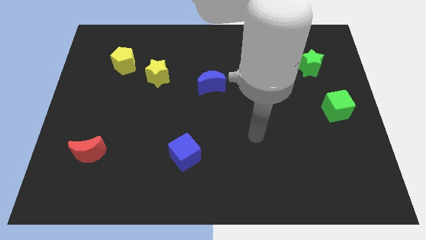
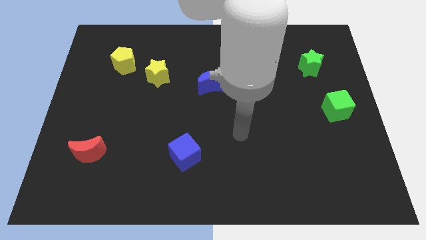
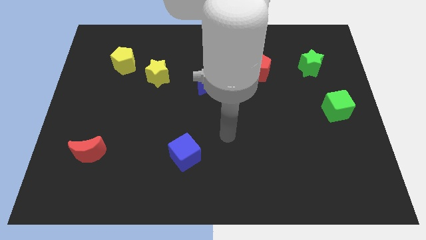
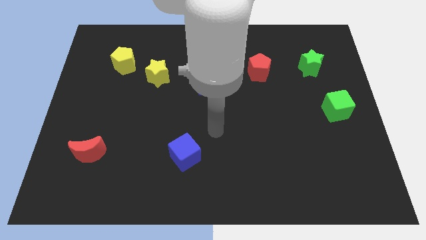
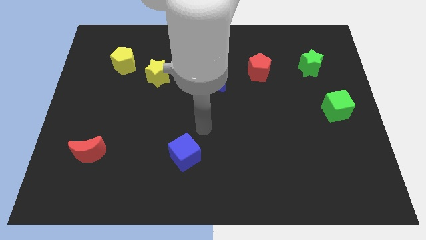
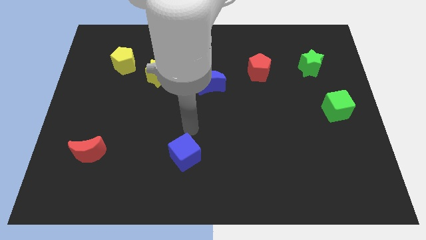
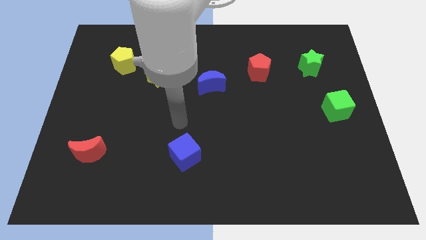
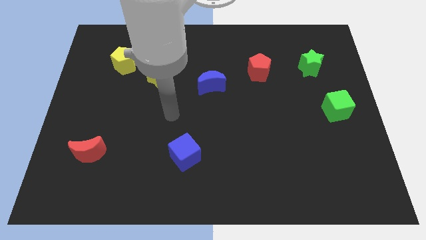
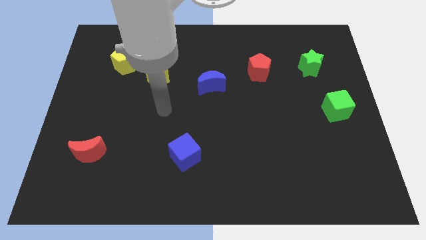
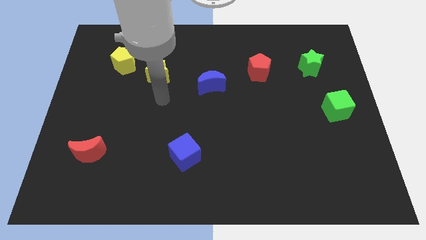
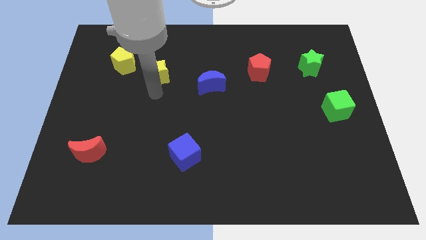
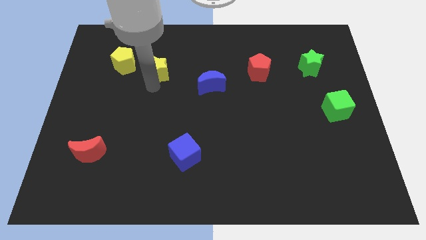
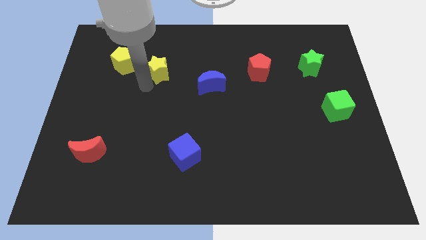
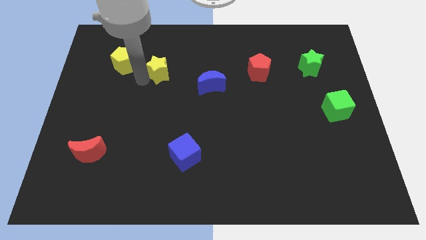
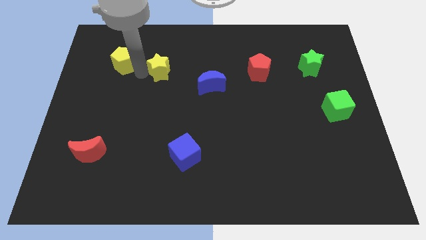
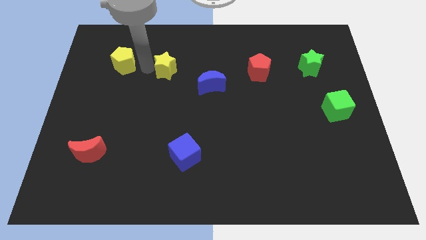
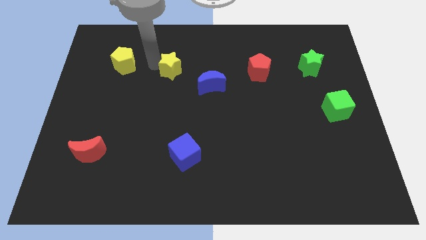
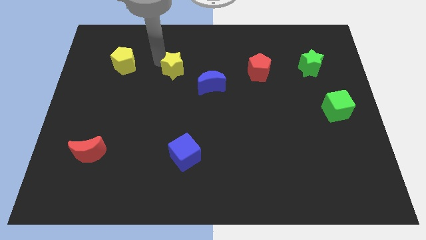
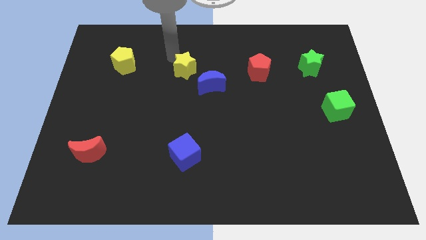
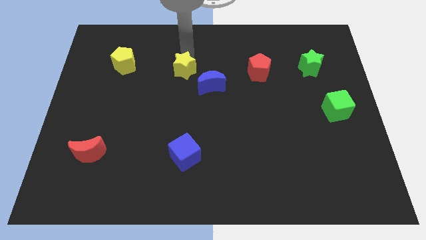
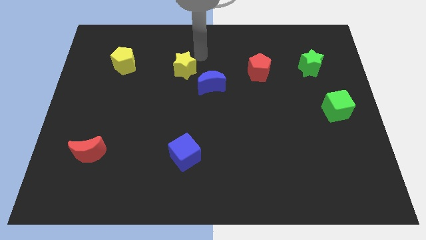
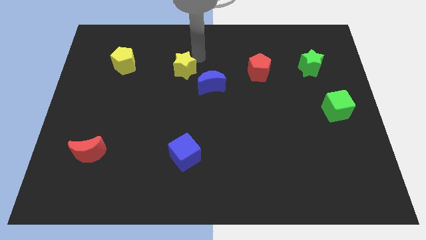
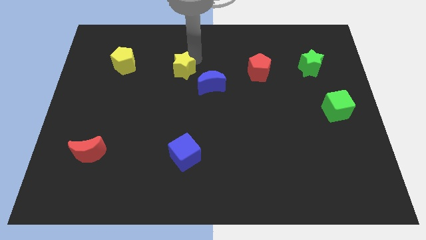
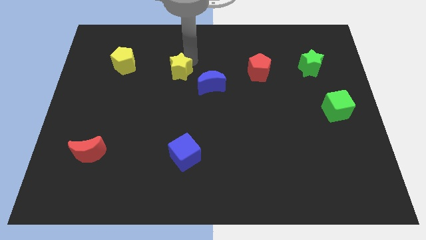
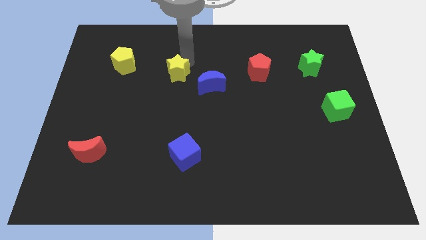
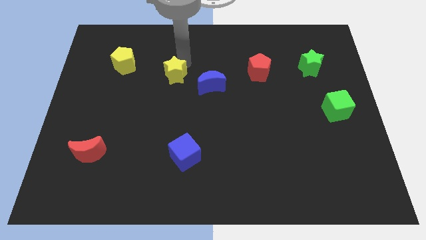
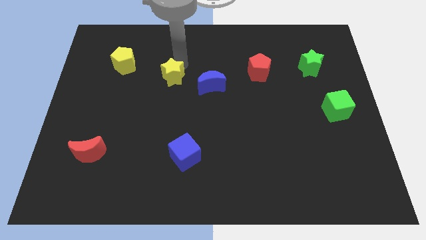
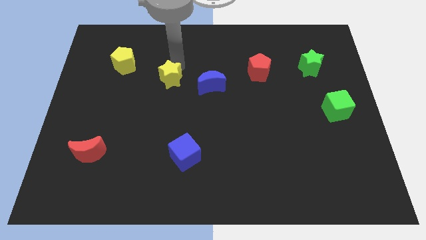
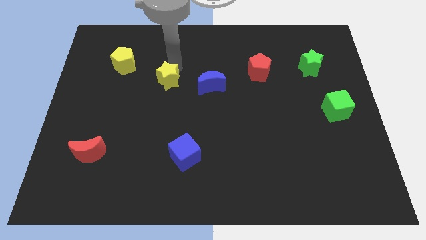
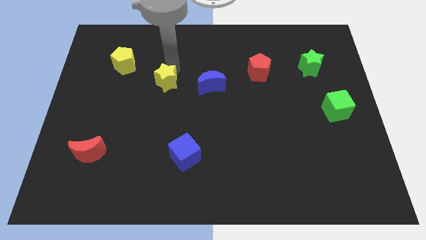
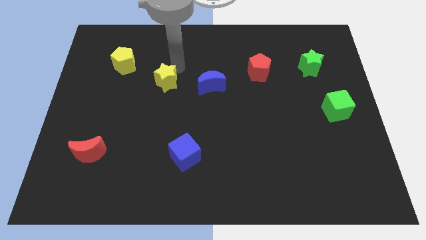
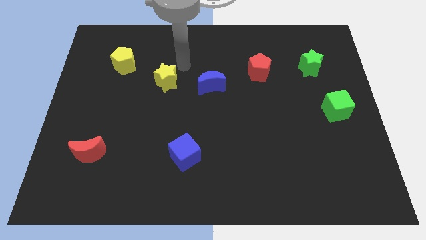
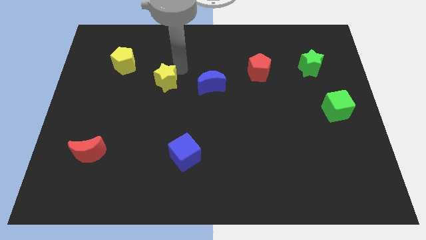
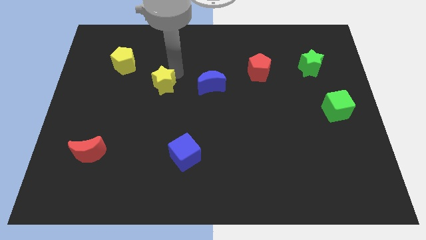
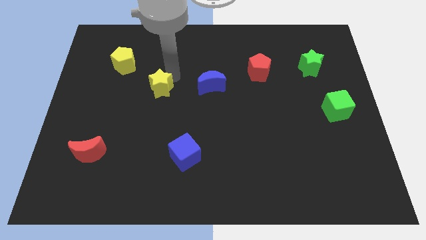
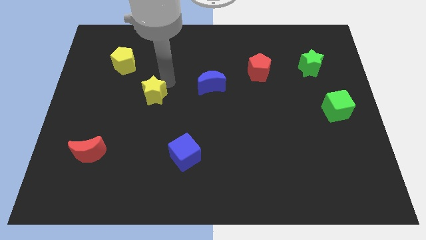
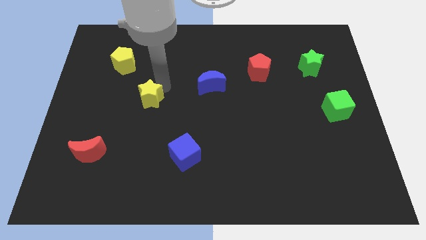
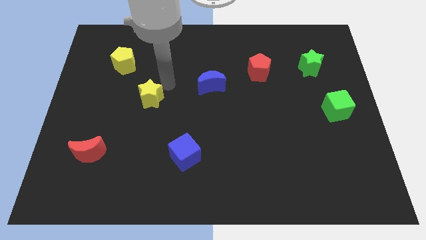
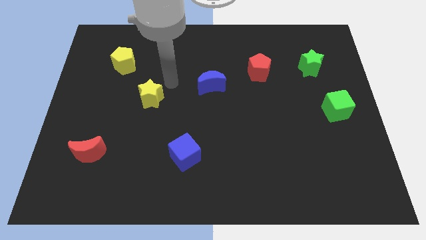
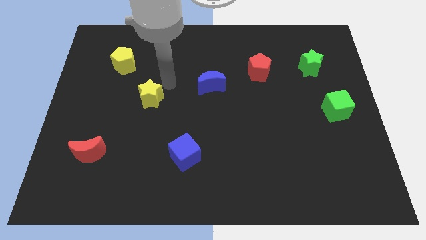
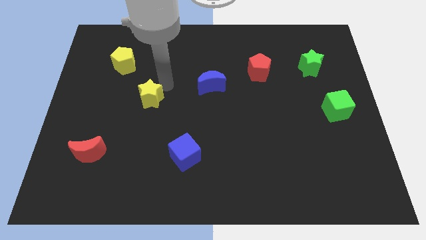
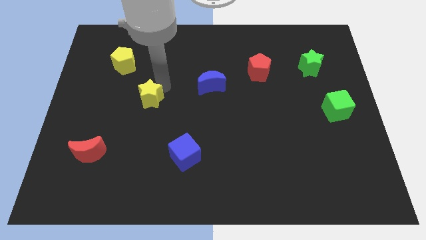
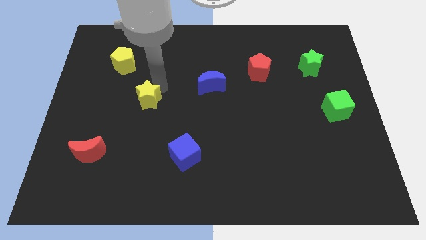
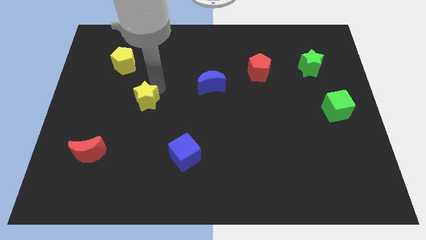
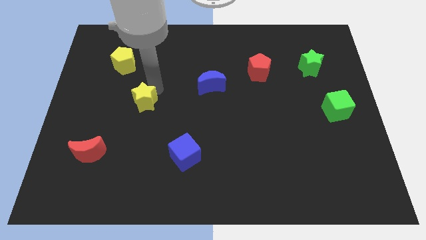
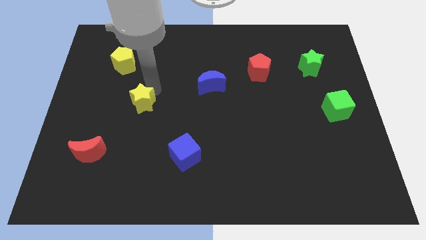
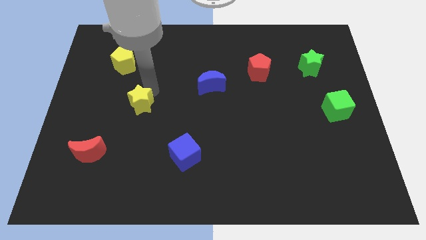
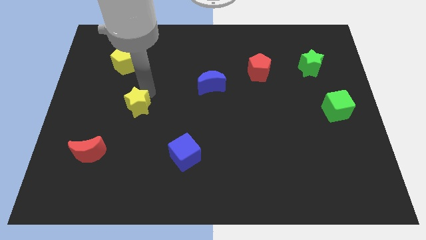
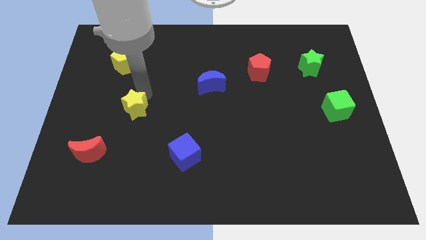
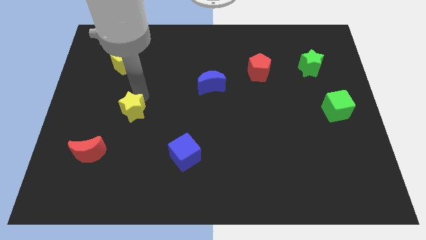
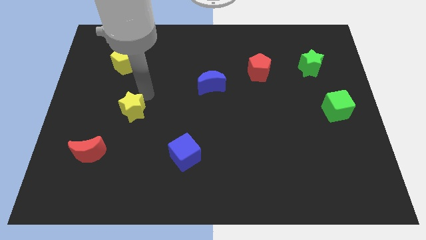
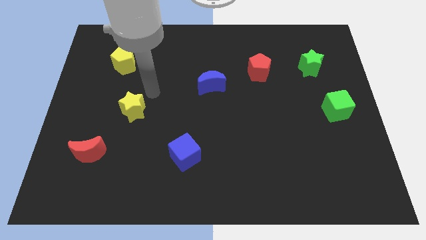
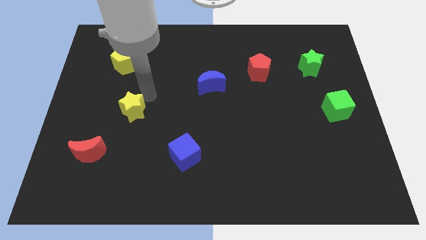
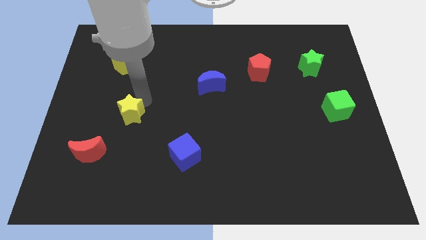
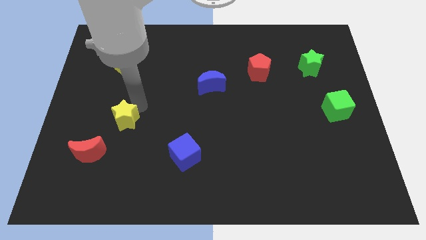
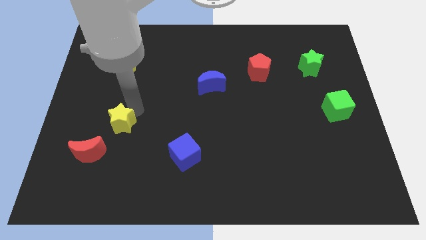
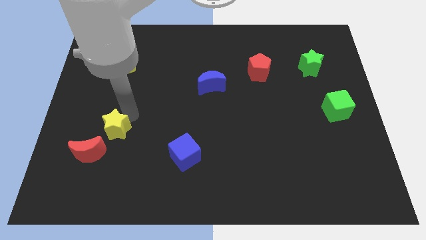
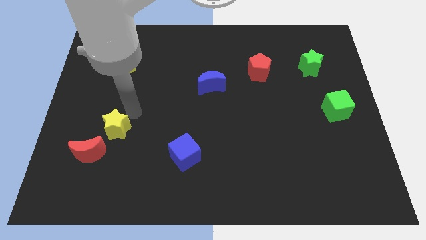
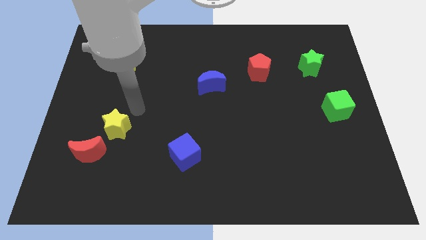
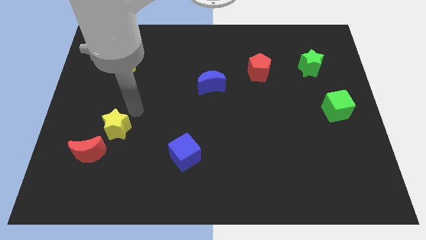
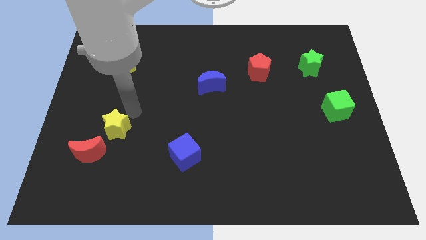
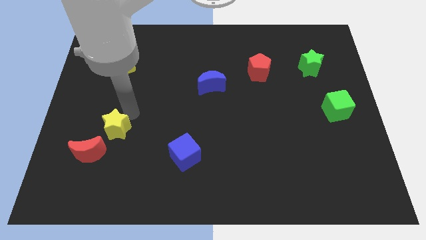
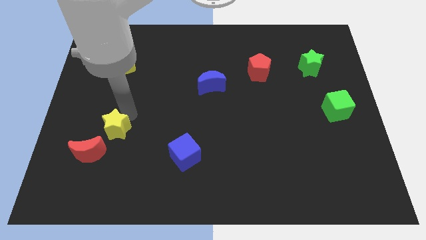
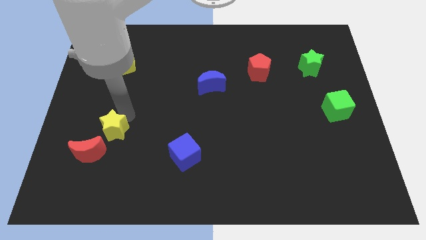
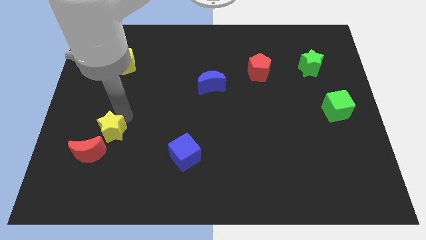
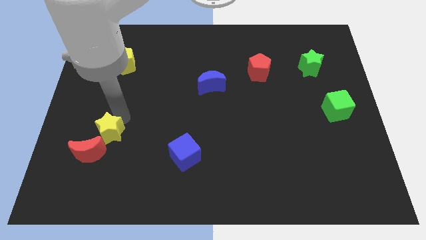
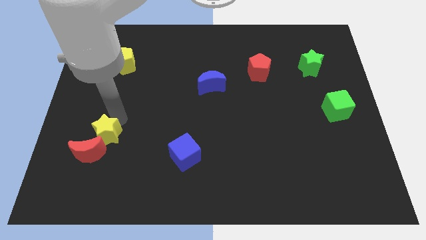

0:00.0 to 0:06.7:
slide the yellow star towards the red moon

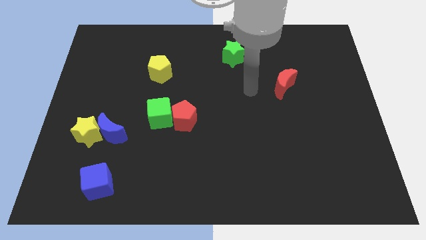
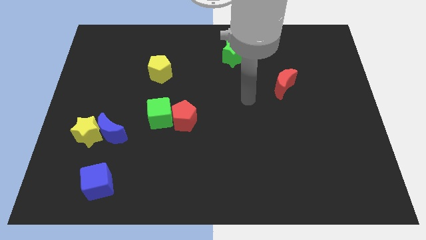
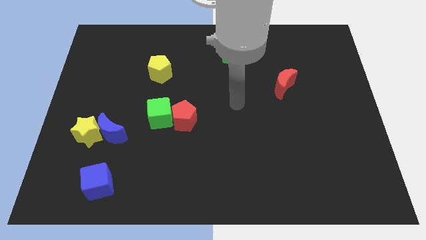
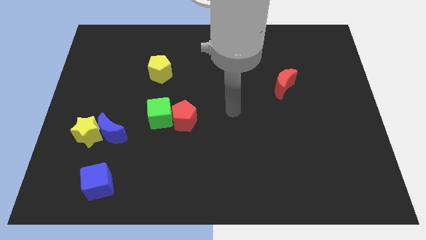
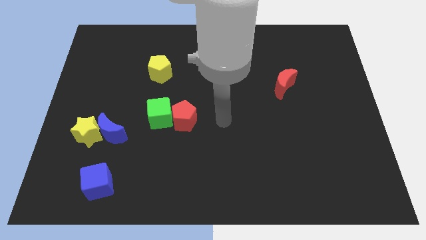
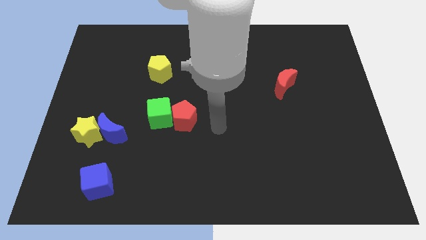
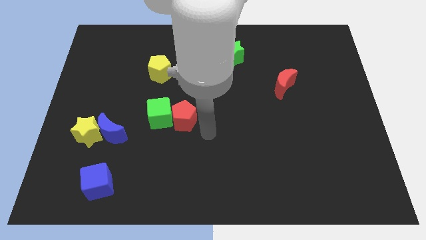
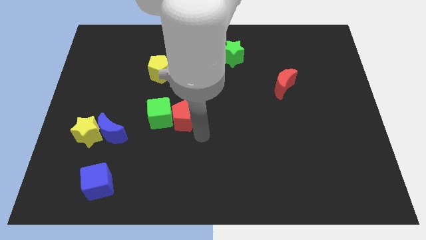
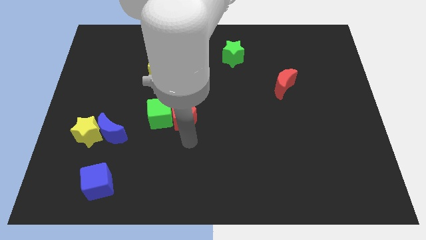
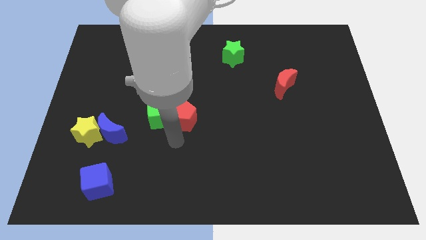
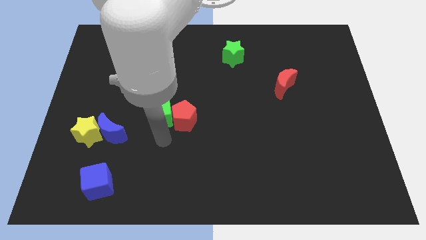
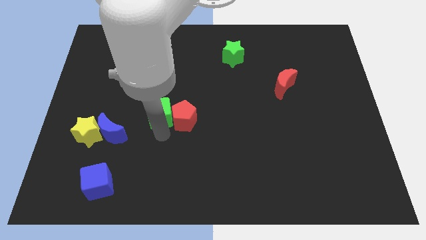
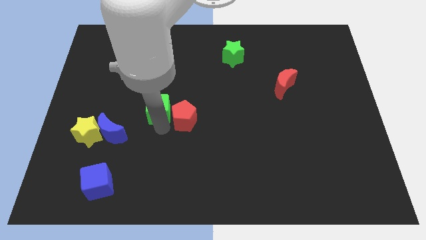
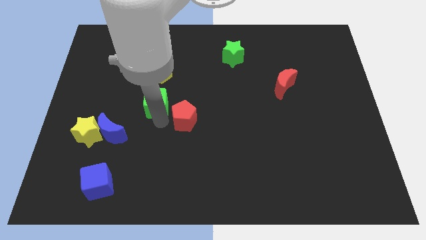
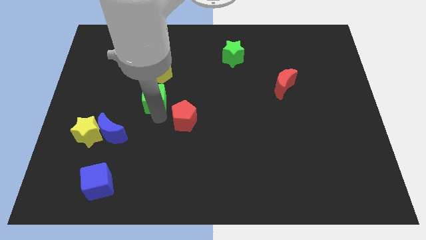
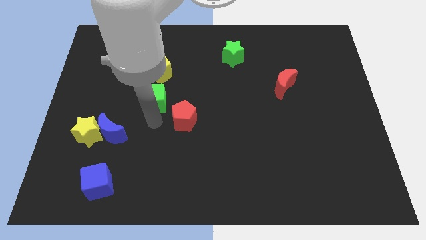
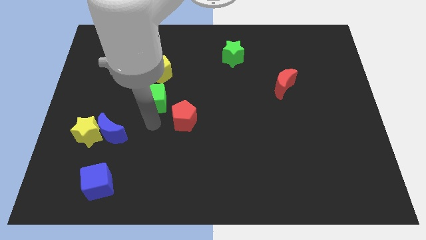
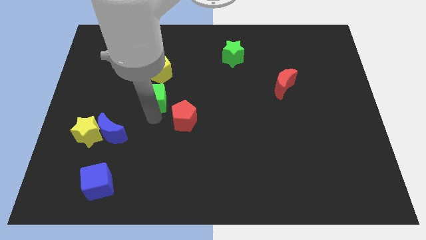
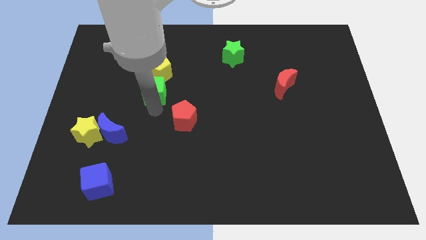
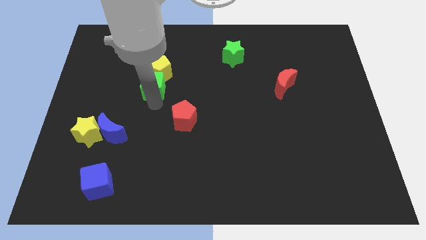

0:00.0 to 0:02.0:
slide the green cube towards the yellow pentagon
